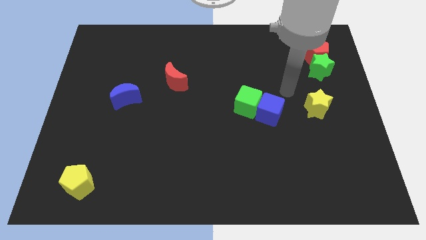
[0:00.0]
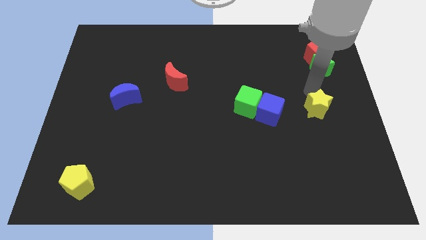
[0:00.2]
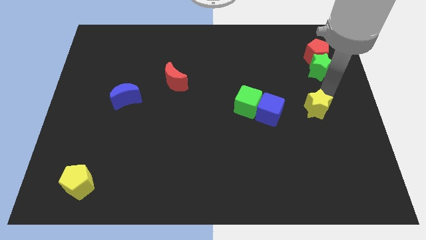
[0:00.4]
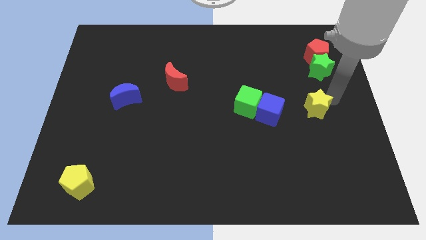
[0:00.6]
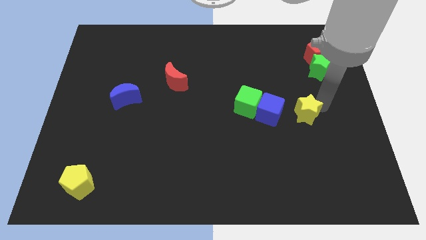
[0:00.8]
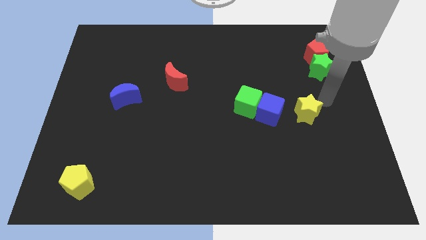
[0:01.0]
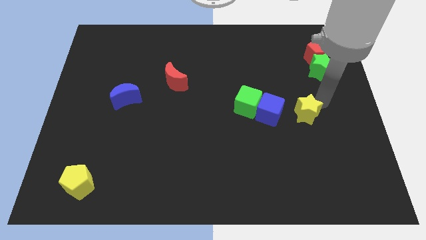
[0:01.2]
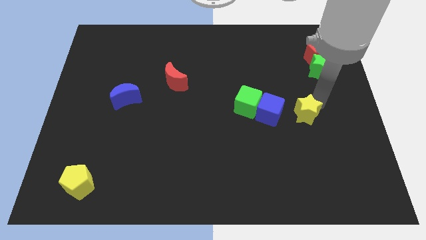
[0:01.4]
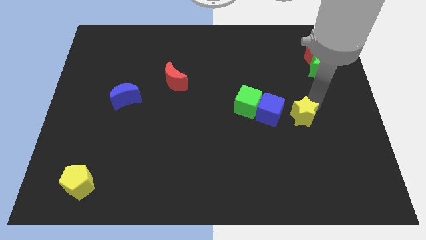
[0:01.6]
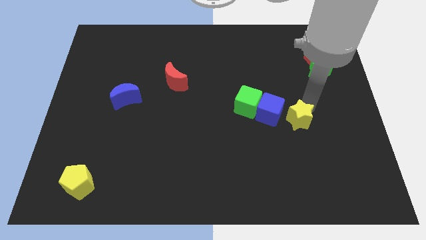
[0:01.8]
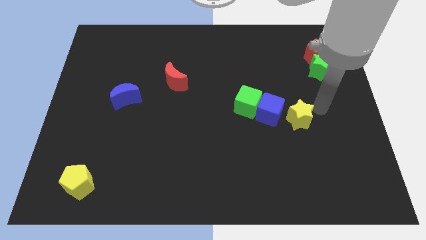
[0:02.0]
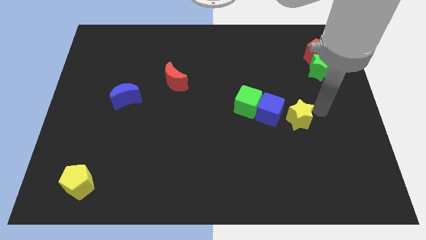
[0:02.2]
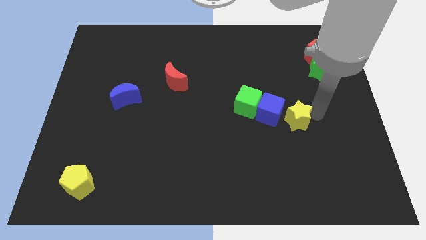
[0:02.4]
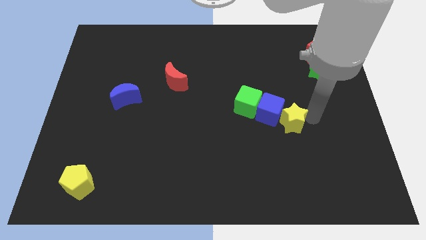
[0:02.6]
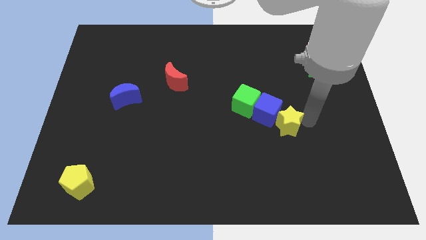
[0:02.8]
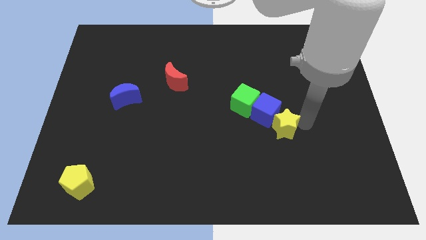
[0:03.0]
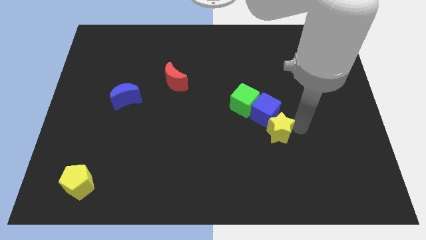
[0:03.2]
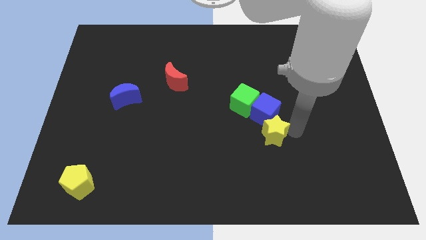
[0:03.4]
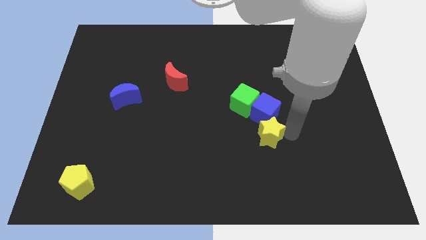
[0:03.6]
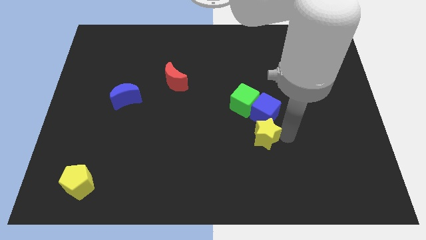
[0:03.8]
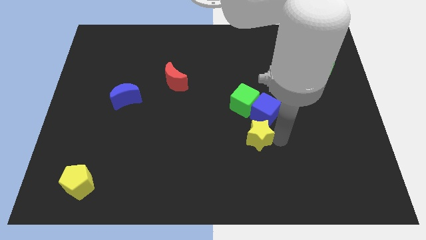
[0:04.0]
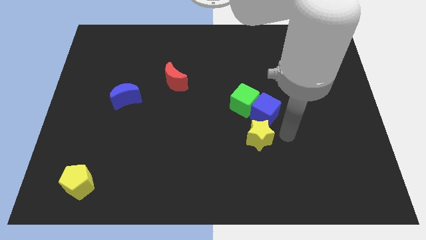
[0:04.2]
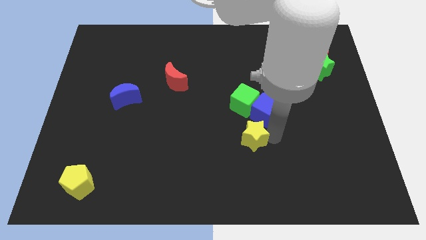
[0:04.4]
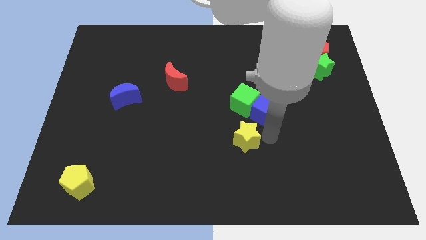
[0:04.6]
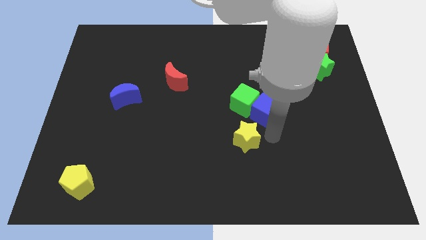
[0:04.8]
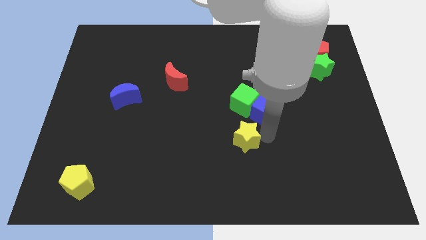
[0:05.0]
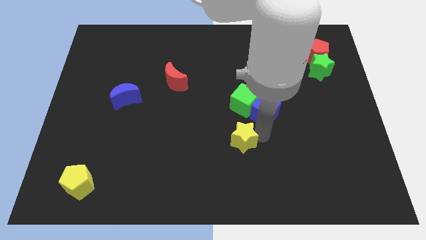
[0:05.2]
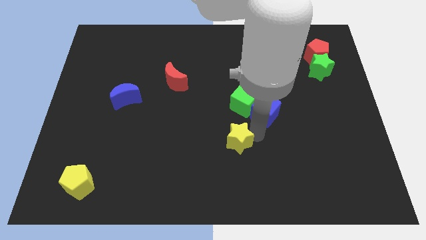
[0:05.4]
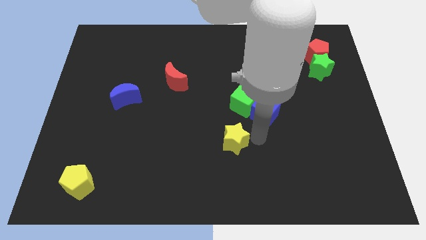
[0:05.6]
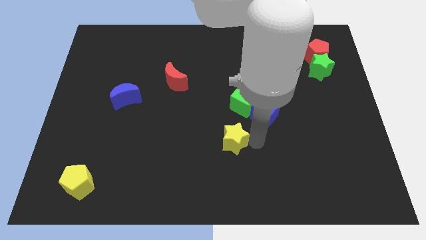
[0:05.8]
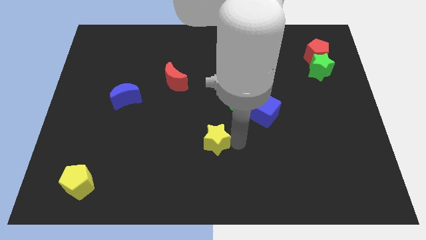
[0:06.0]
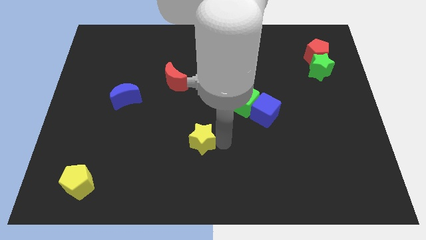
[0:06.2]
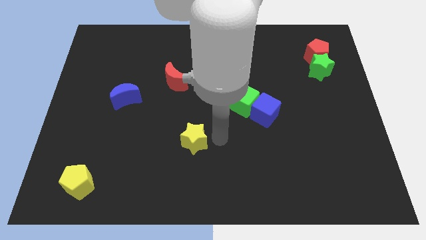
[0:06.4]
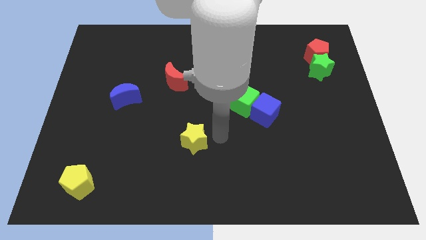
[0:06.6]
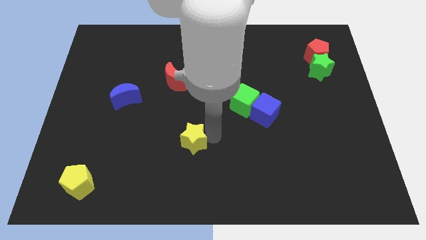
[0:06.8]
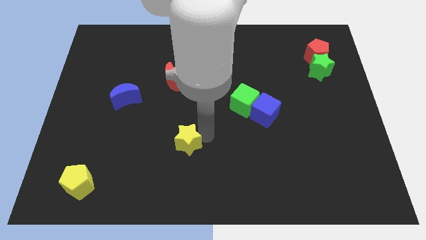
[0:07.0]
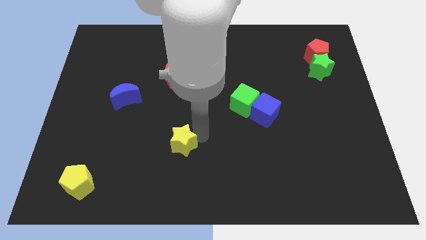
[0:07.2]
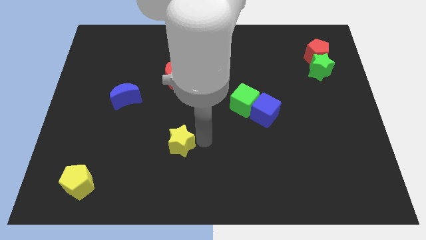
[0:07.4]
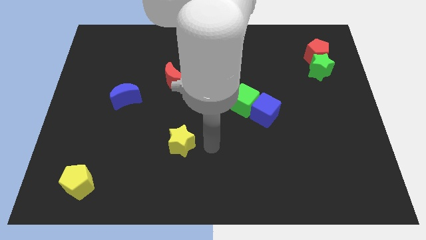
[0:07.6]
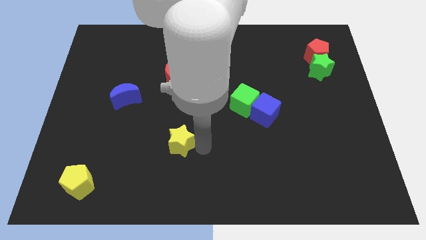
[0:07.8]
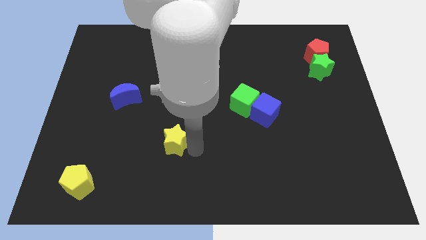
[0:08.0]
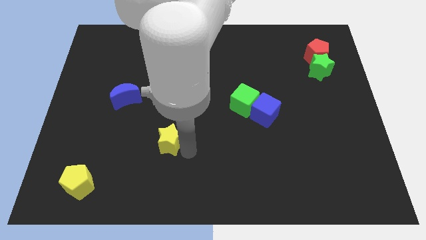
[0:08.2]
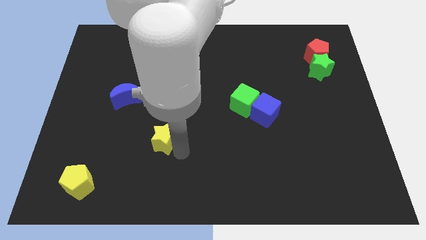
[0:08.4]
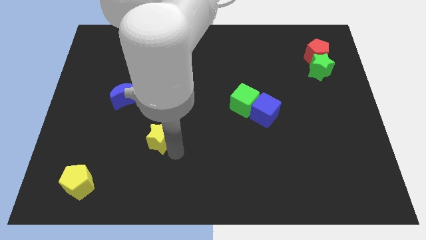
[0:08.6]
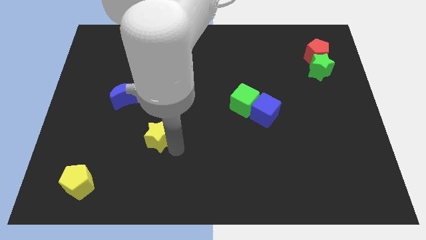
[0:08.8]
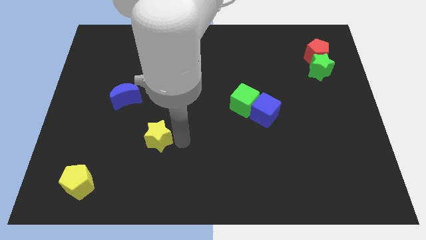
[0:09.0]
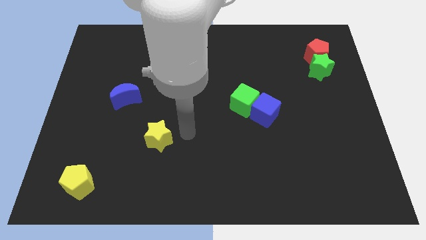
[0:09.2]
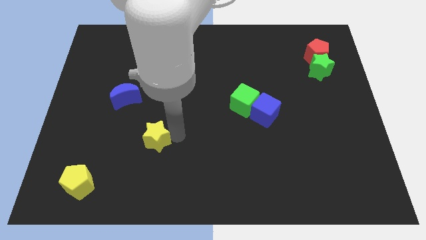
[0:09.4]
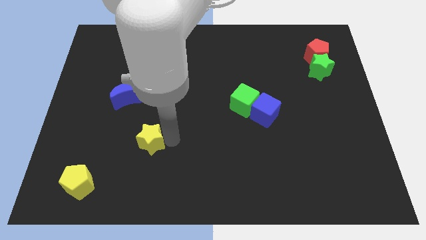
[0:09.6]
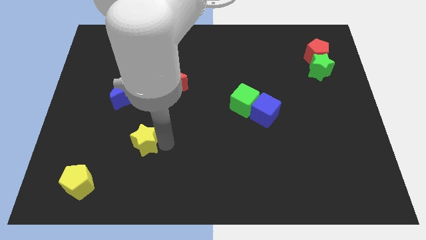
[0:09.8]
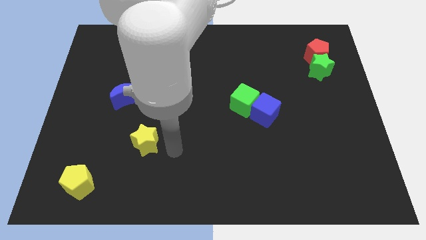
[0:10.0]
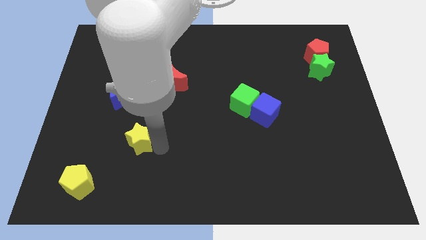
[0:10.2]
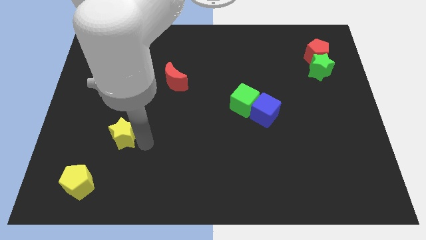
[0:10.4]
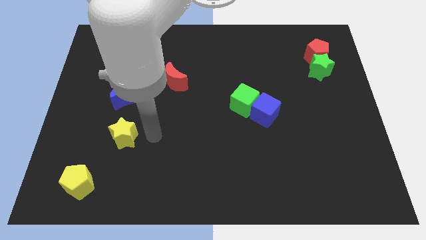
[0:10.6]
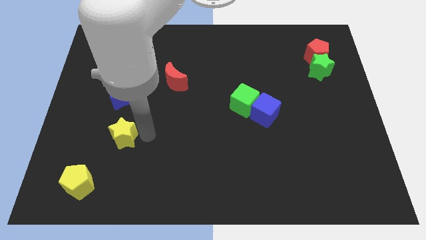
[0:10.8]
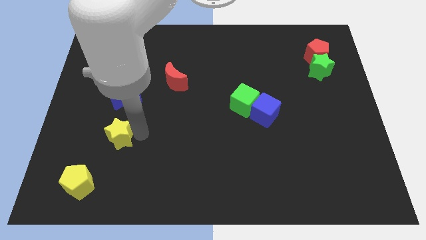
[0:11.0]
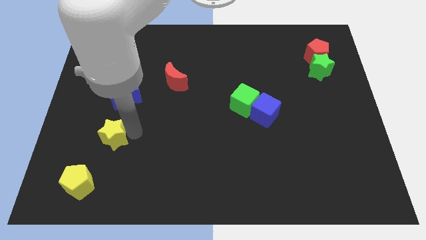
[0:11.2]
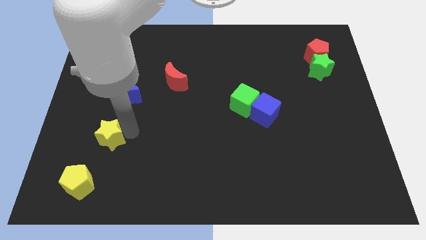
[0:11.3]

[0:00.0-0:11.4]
push the yellow star above the yellow pentagon

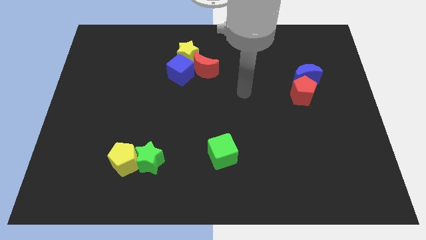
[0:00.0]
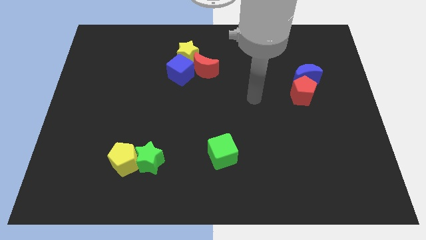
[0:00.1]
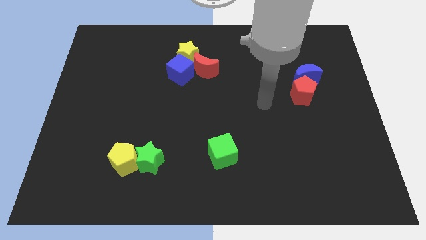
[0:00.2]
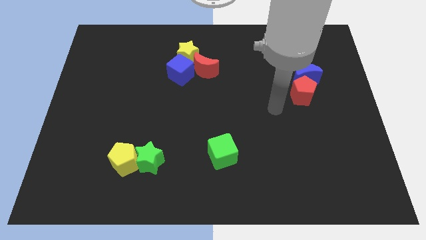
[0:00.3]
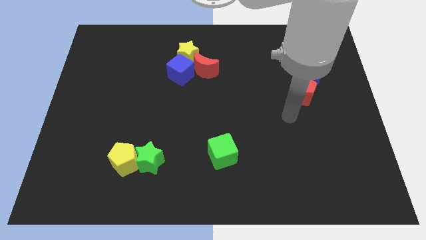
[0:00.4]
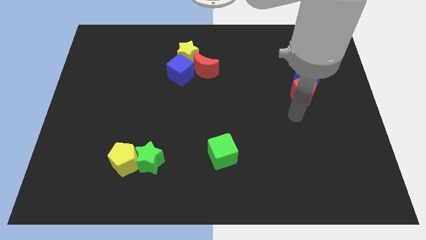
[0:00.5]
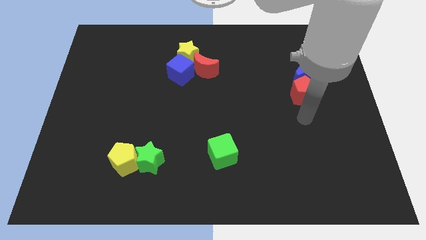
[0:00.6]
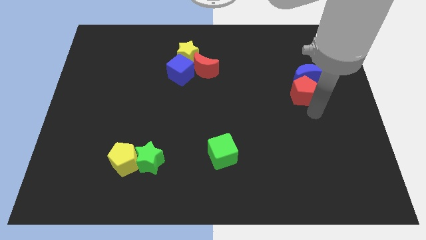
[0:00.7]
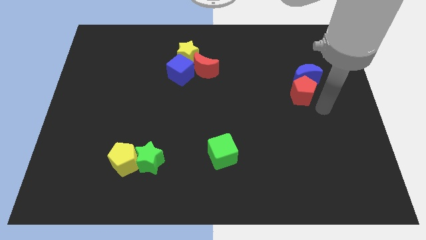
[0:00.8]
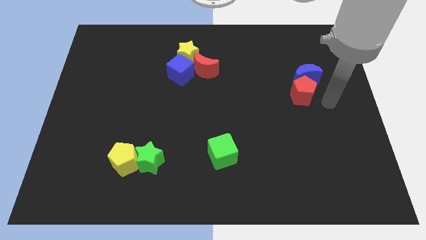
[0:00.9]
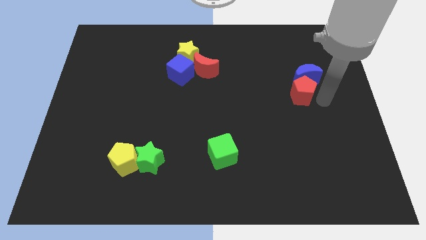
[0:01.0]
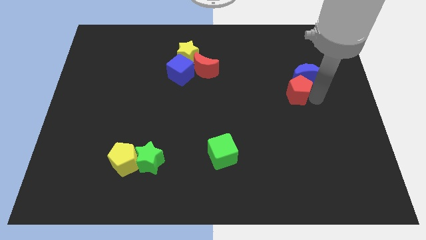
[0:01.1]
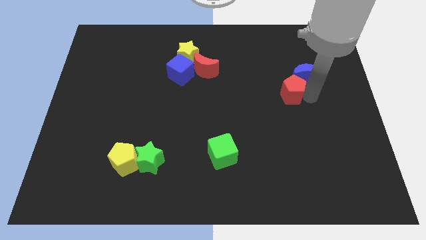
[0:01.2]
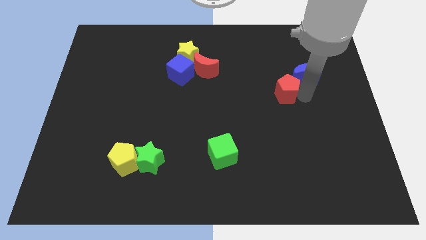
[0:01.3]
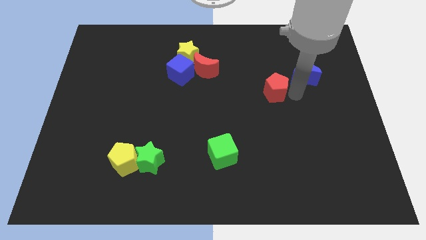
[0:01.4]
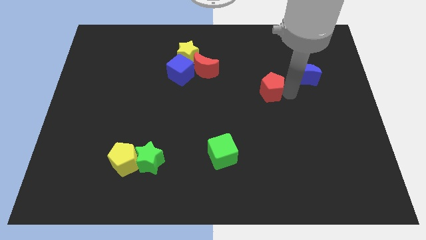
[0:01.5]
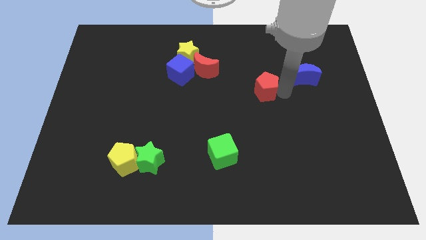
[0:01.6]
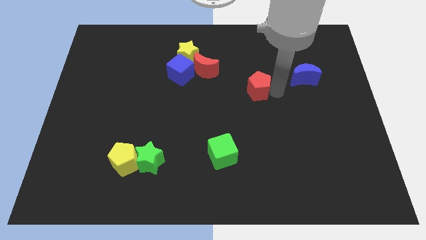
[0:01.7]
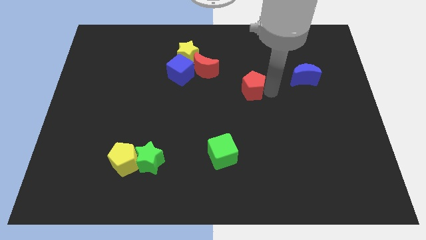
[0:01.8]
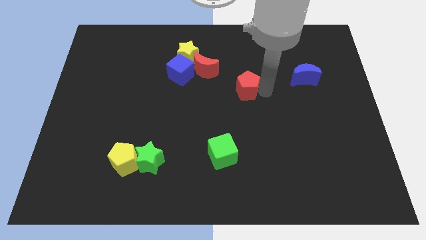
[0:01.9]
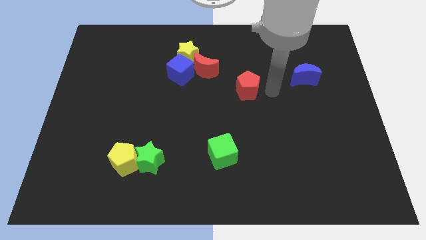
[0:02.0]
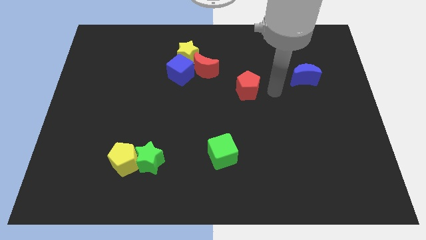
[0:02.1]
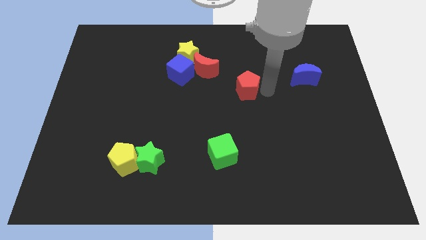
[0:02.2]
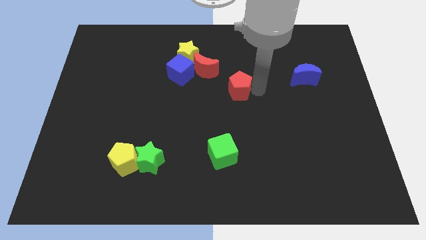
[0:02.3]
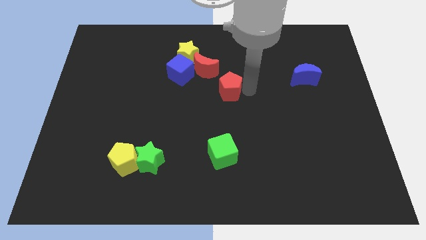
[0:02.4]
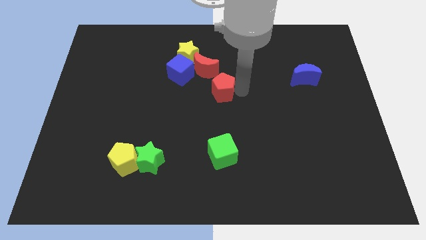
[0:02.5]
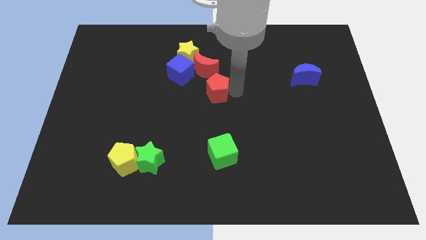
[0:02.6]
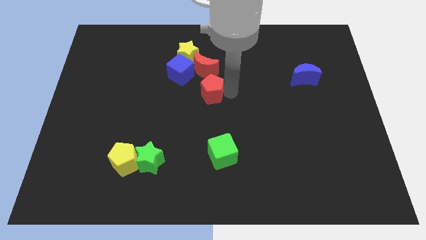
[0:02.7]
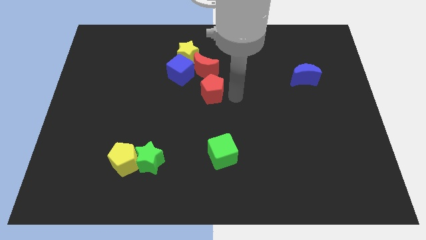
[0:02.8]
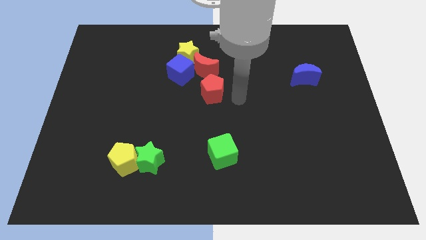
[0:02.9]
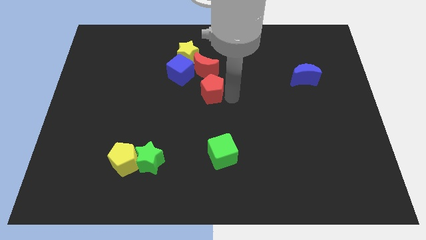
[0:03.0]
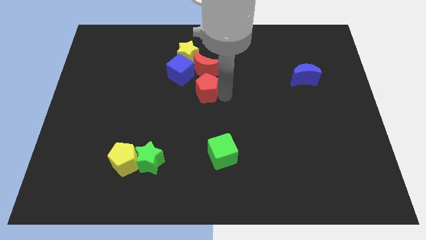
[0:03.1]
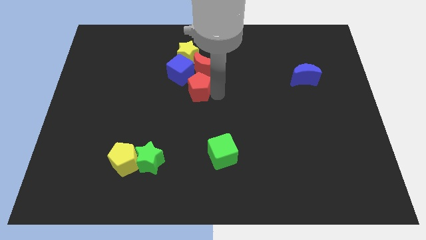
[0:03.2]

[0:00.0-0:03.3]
put the red pentagon to the bottom left of the red moon
